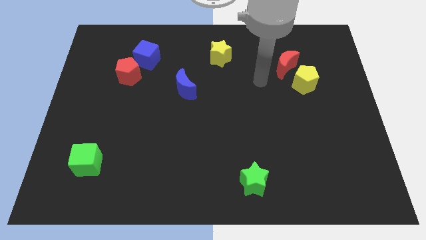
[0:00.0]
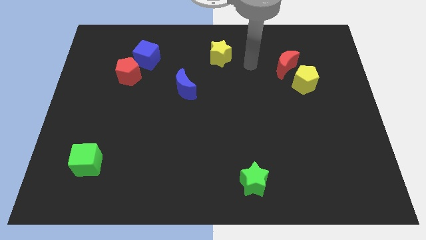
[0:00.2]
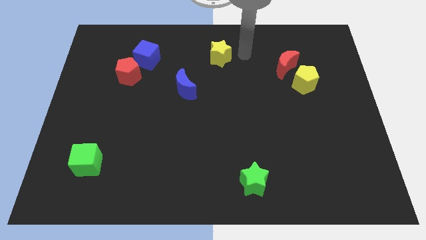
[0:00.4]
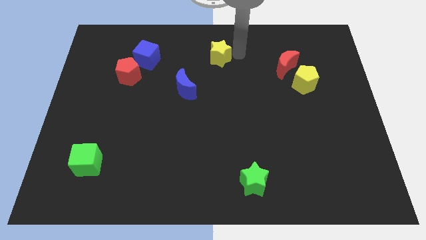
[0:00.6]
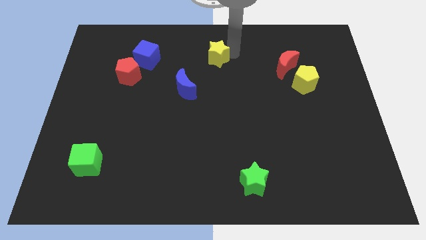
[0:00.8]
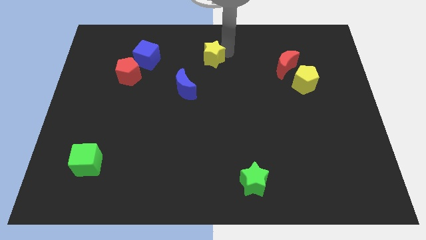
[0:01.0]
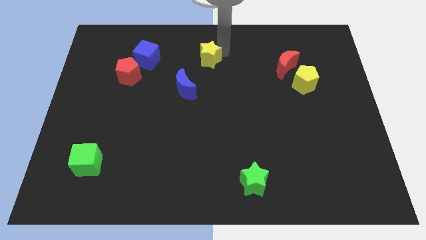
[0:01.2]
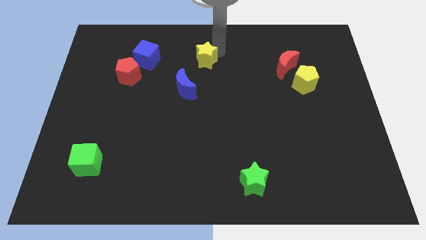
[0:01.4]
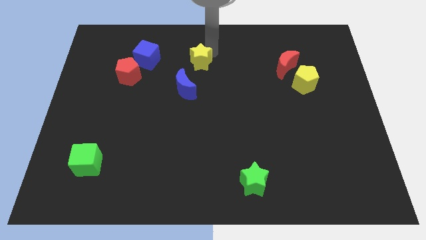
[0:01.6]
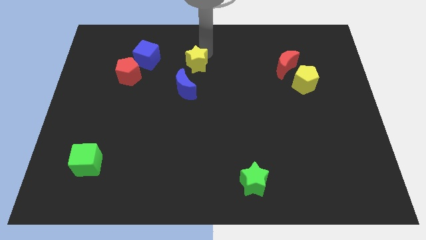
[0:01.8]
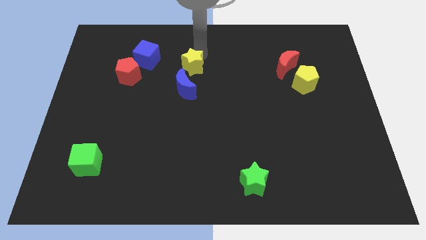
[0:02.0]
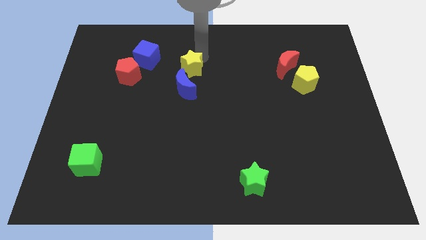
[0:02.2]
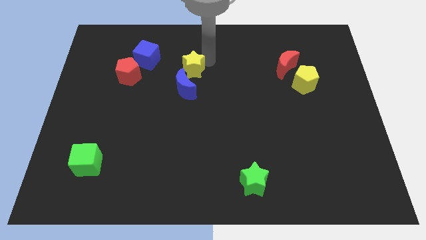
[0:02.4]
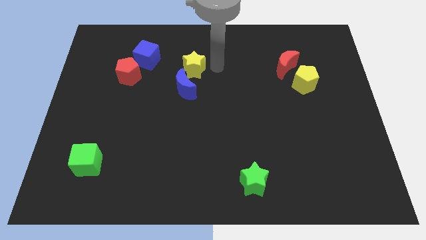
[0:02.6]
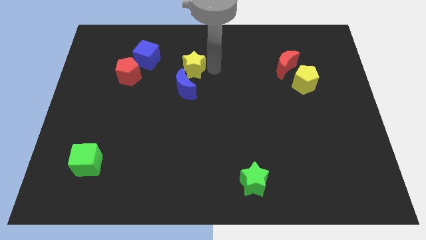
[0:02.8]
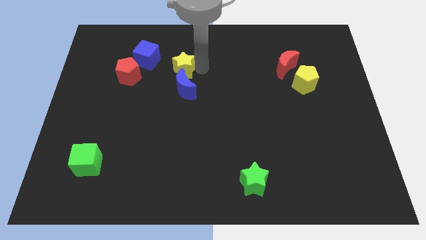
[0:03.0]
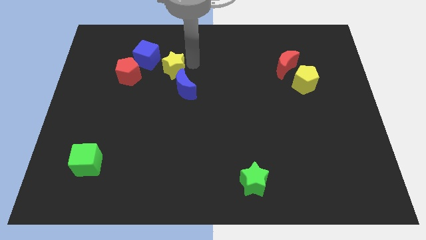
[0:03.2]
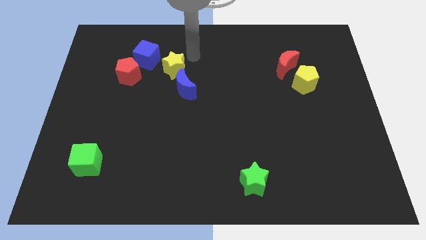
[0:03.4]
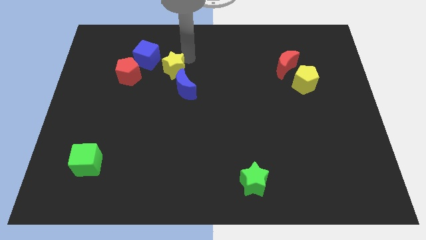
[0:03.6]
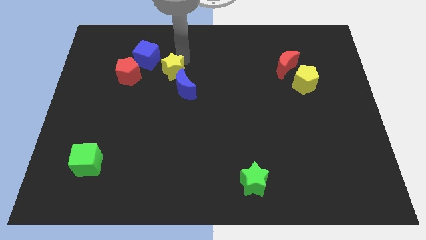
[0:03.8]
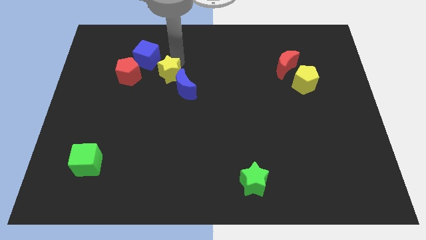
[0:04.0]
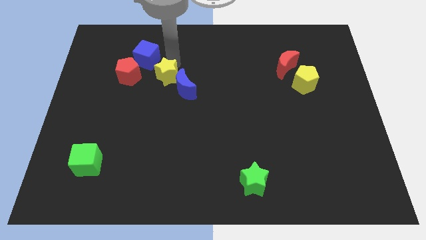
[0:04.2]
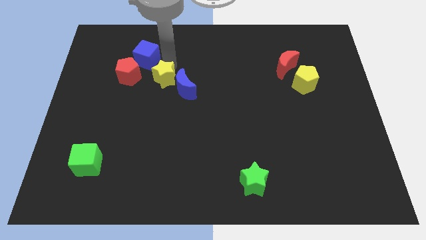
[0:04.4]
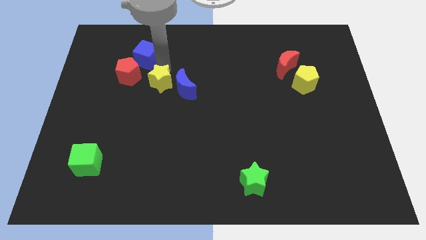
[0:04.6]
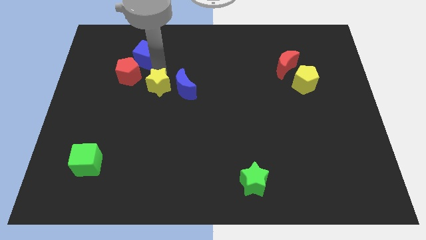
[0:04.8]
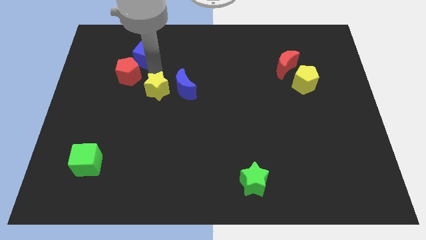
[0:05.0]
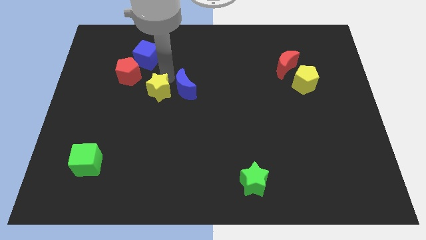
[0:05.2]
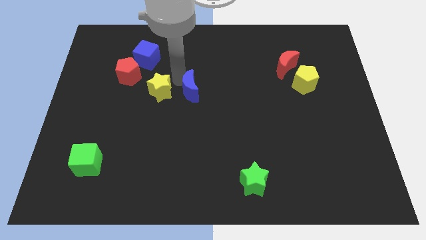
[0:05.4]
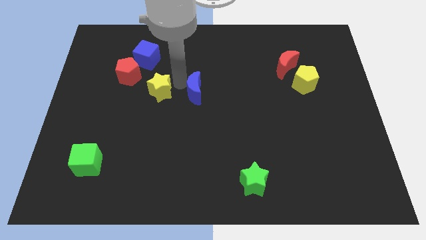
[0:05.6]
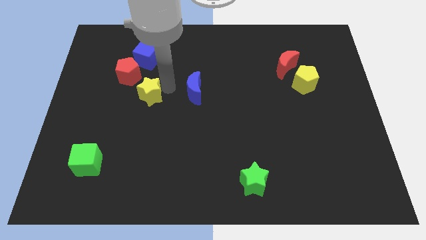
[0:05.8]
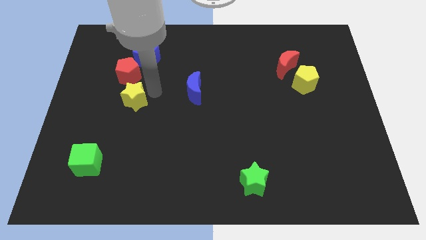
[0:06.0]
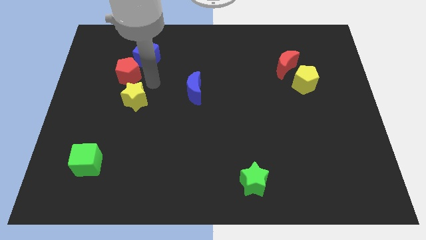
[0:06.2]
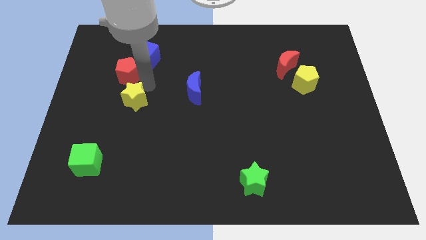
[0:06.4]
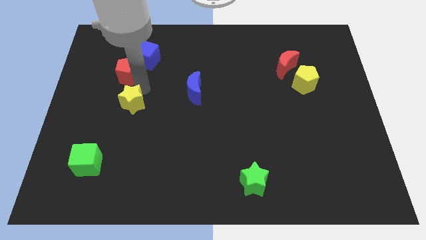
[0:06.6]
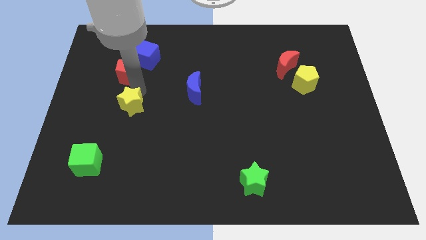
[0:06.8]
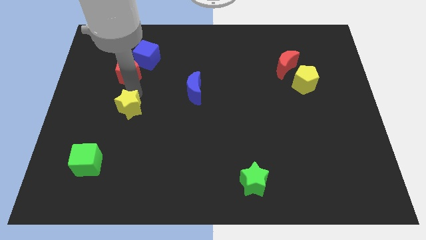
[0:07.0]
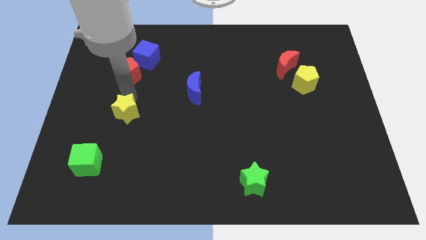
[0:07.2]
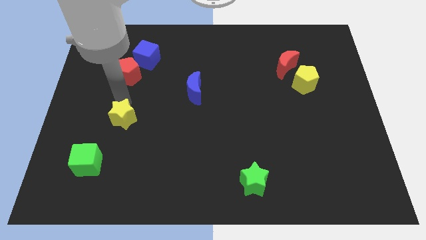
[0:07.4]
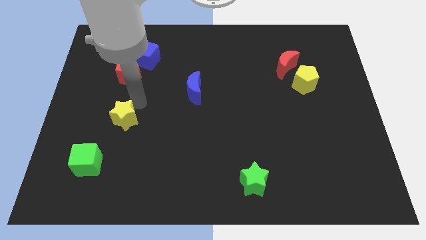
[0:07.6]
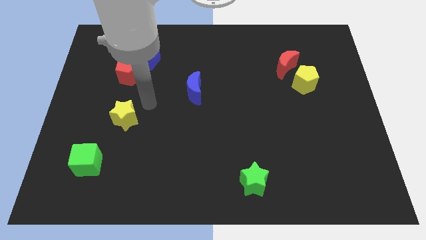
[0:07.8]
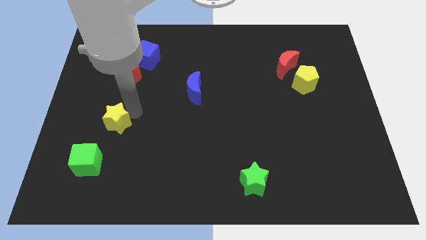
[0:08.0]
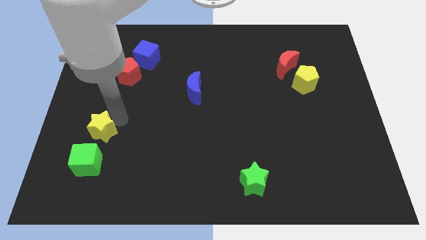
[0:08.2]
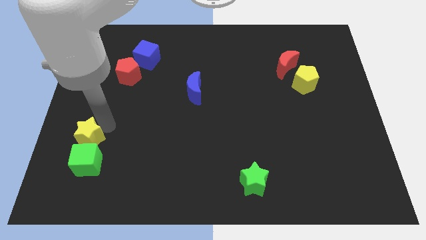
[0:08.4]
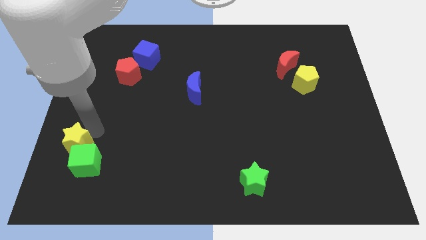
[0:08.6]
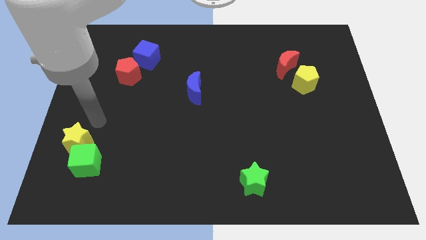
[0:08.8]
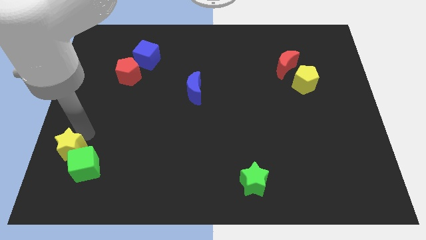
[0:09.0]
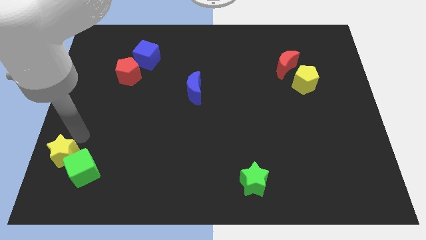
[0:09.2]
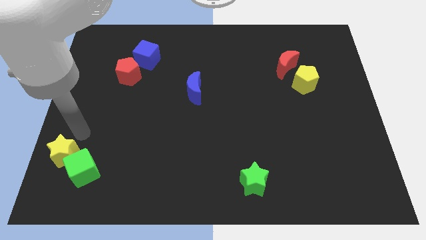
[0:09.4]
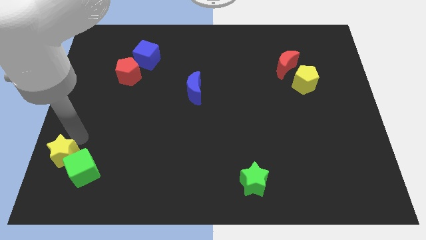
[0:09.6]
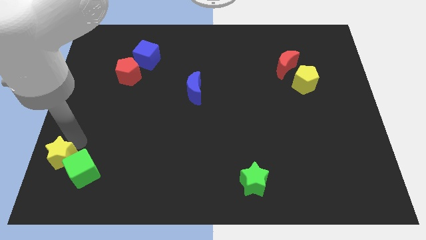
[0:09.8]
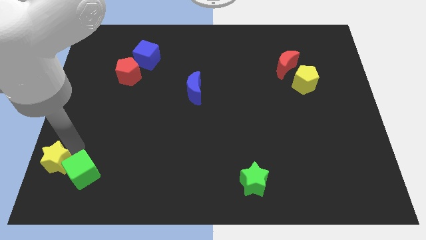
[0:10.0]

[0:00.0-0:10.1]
move the yellow star to the lower left corner
